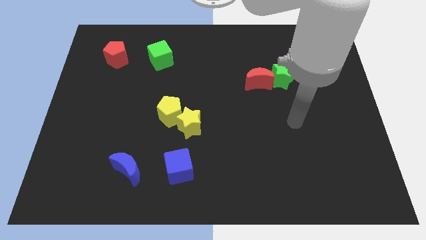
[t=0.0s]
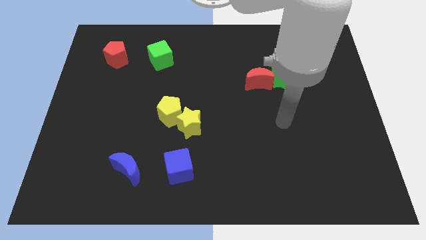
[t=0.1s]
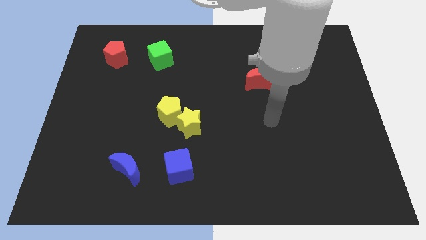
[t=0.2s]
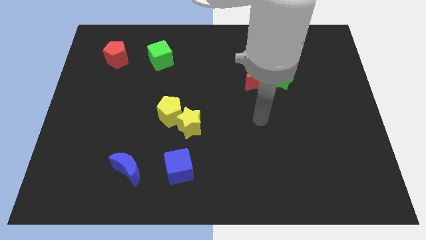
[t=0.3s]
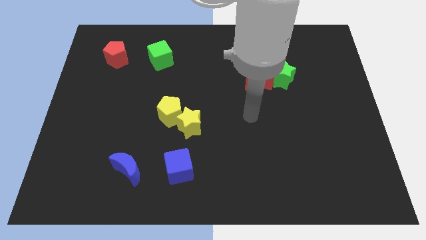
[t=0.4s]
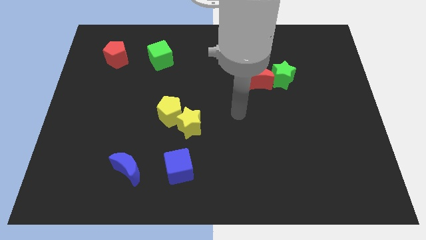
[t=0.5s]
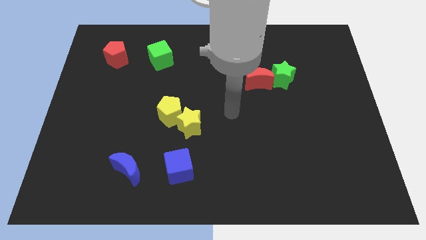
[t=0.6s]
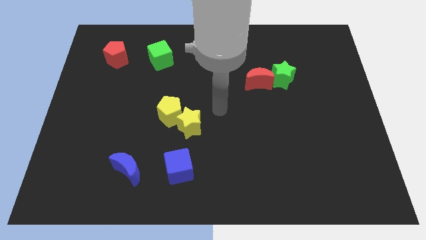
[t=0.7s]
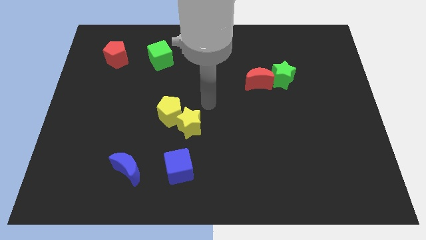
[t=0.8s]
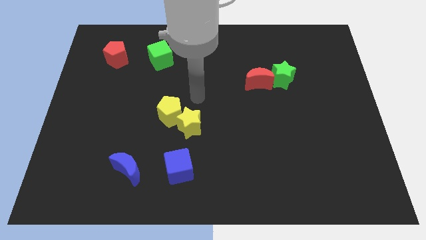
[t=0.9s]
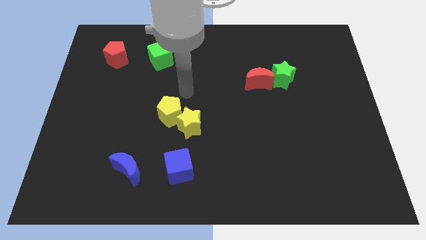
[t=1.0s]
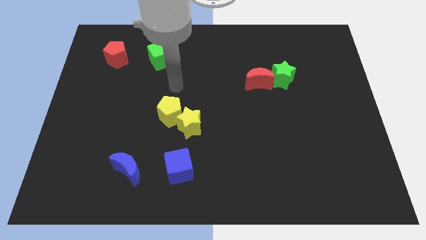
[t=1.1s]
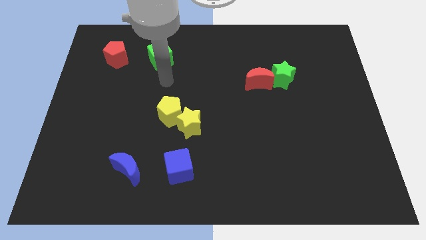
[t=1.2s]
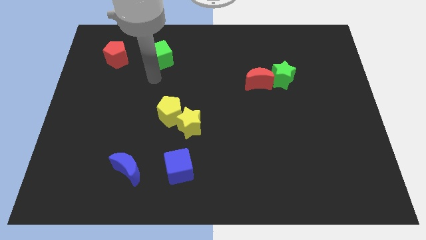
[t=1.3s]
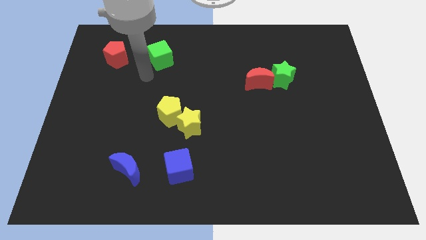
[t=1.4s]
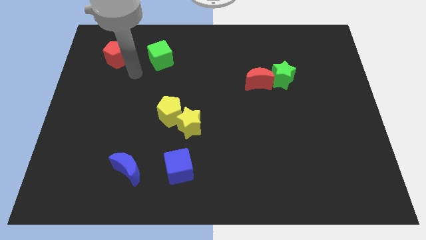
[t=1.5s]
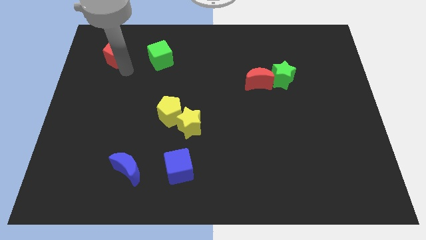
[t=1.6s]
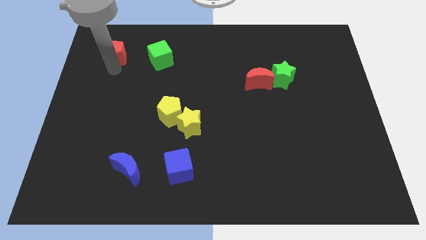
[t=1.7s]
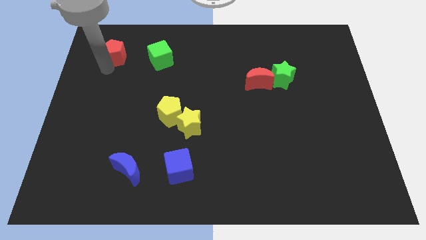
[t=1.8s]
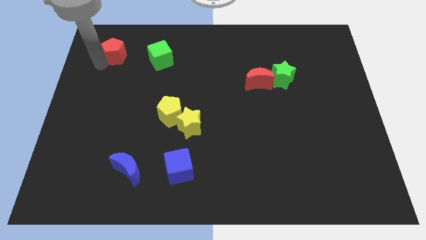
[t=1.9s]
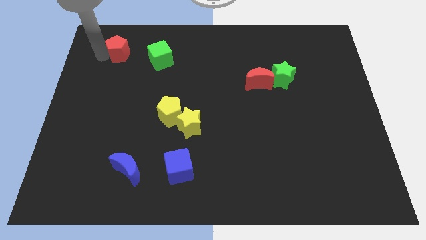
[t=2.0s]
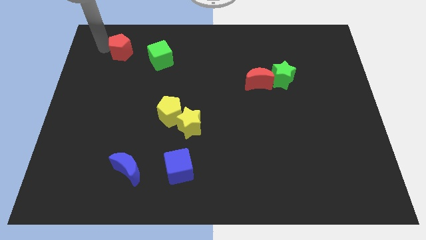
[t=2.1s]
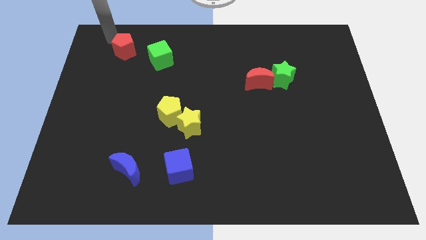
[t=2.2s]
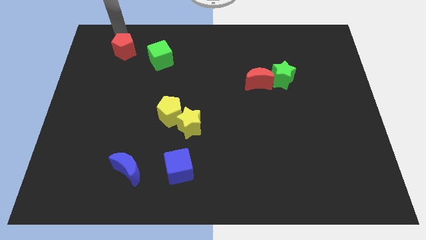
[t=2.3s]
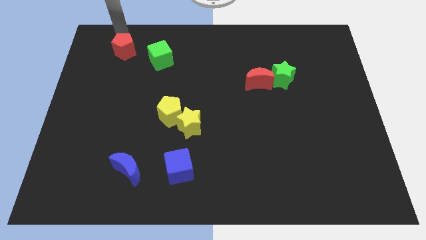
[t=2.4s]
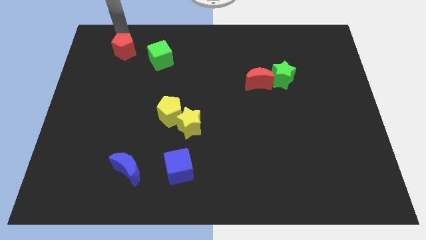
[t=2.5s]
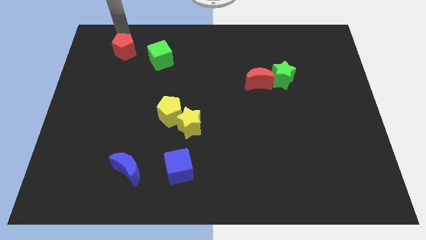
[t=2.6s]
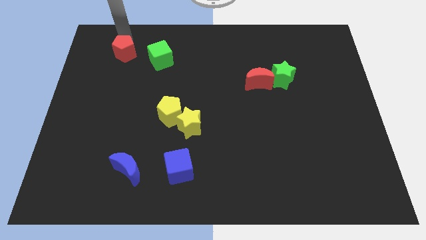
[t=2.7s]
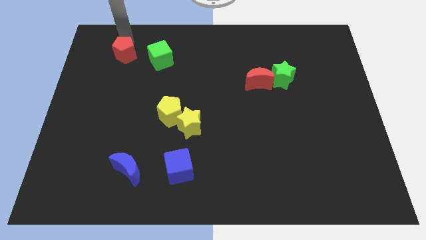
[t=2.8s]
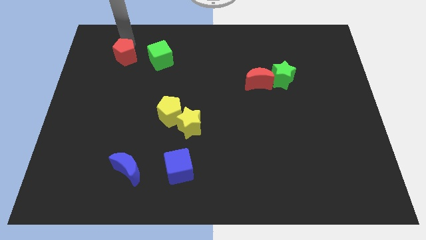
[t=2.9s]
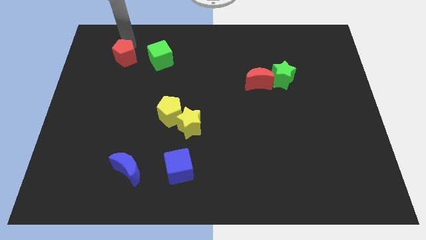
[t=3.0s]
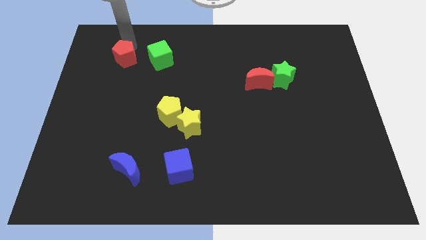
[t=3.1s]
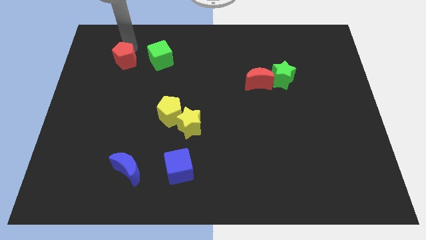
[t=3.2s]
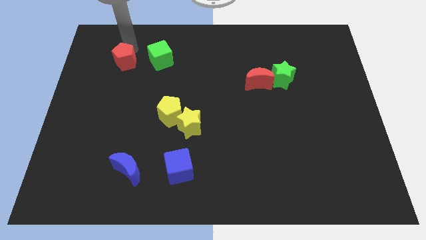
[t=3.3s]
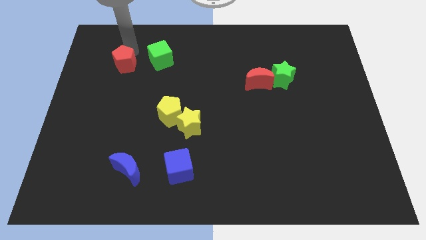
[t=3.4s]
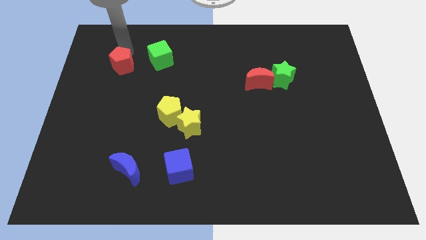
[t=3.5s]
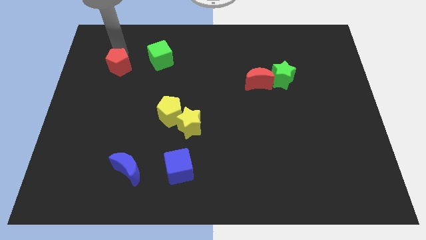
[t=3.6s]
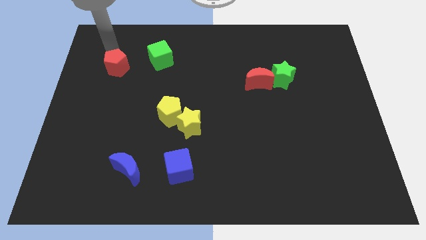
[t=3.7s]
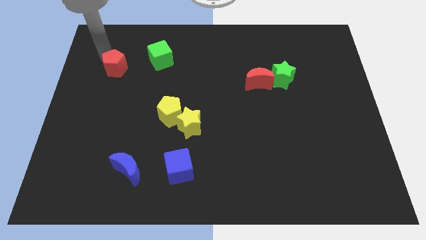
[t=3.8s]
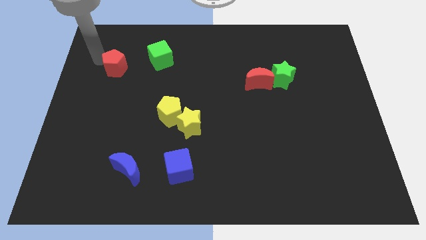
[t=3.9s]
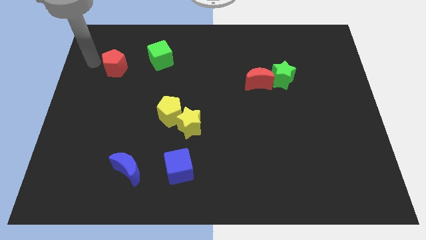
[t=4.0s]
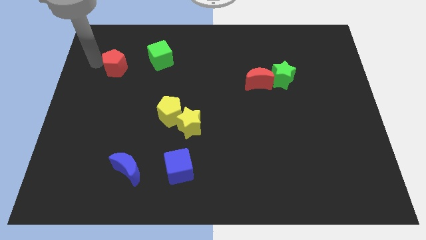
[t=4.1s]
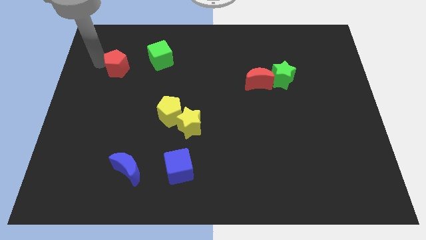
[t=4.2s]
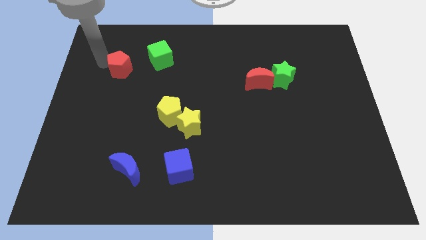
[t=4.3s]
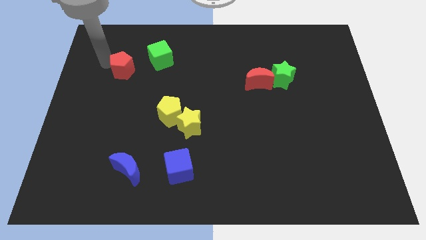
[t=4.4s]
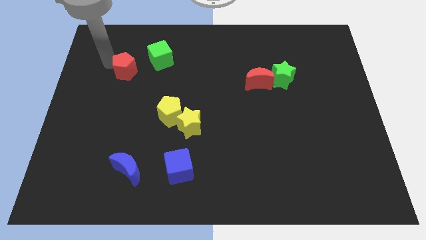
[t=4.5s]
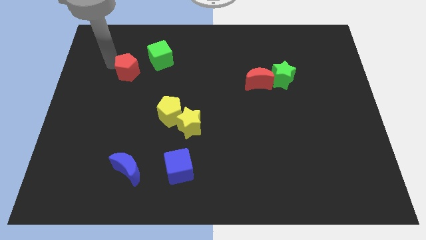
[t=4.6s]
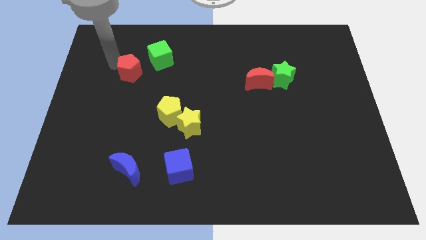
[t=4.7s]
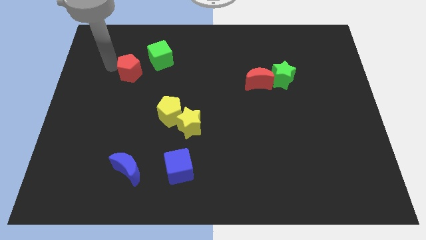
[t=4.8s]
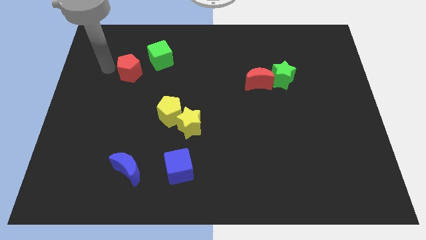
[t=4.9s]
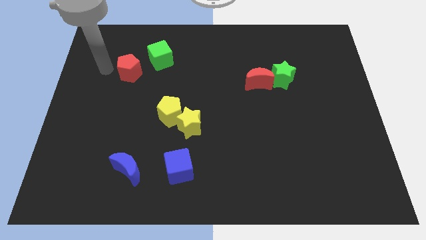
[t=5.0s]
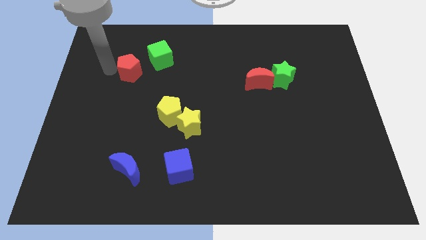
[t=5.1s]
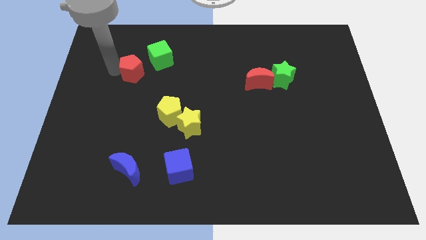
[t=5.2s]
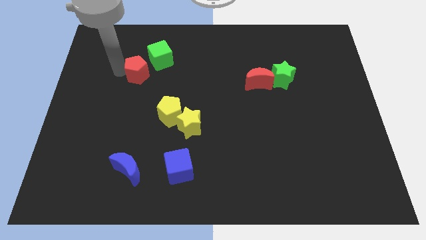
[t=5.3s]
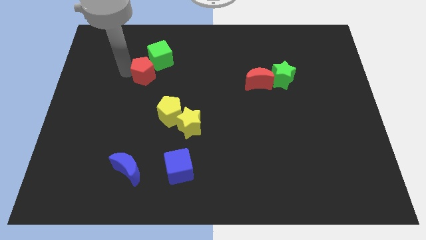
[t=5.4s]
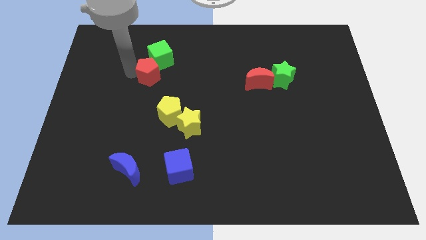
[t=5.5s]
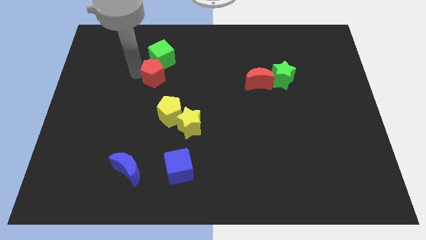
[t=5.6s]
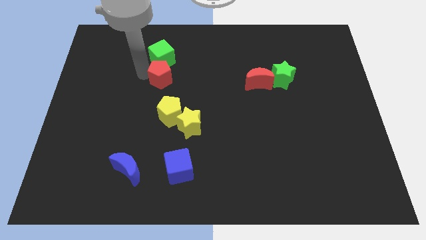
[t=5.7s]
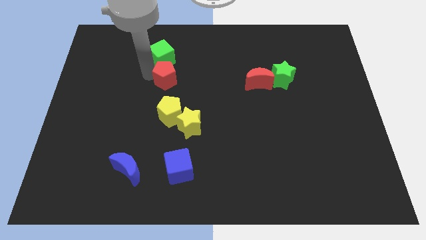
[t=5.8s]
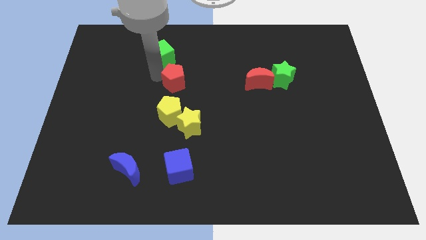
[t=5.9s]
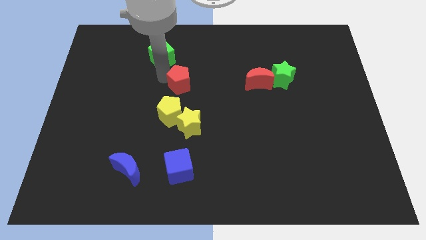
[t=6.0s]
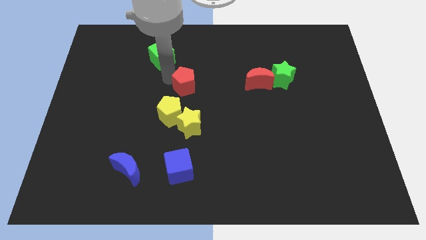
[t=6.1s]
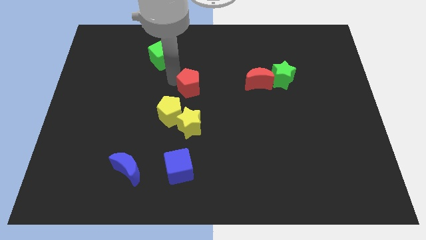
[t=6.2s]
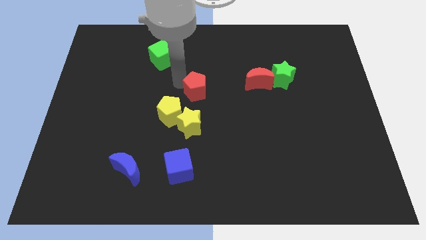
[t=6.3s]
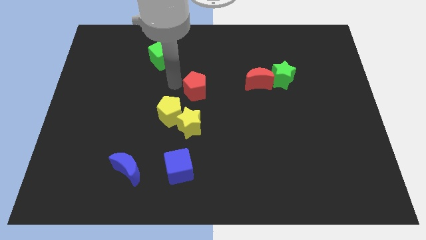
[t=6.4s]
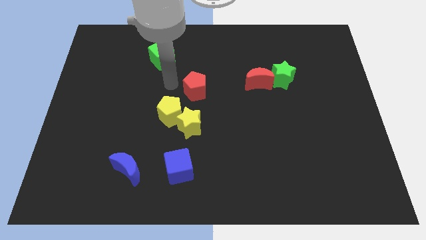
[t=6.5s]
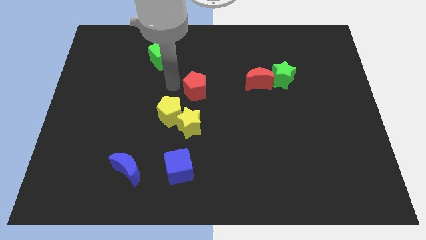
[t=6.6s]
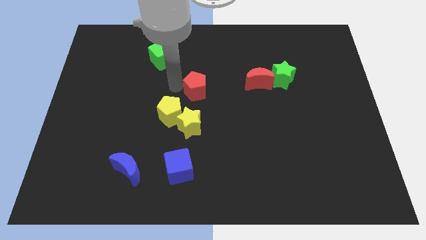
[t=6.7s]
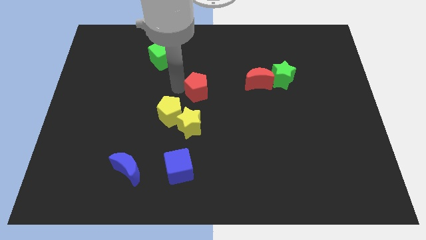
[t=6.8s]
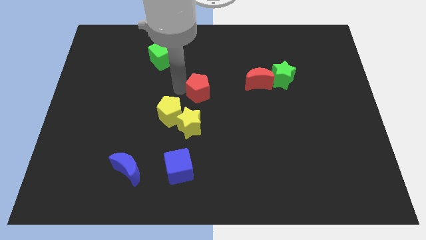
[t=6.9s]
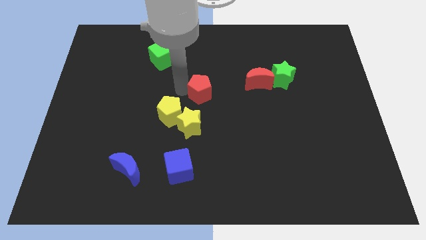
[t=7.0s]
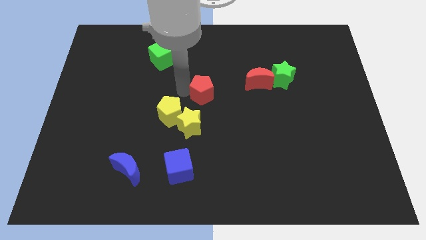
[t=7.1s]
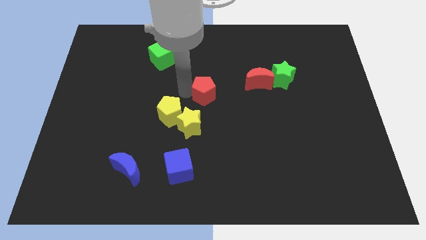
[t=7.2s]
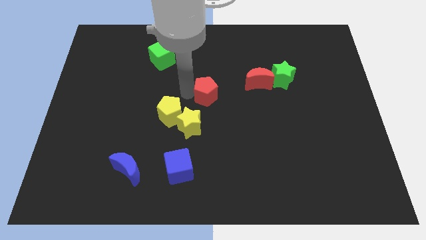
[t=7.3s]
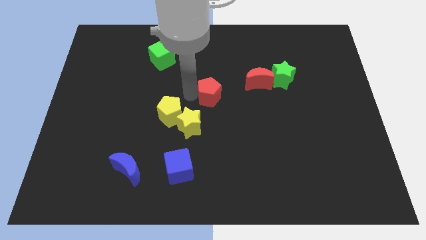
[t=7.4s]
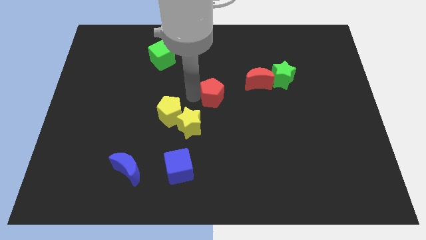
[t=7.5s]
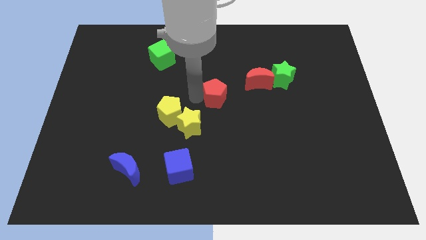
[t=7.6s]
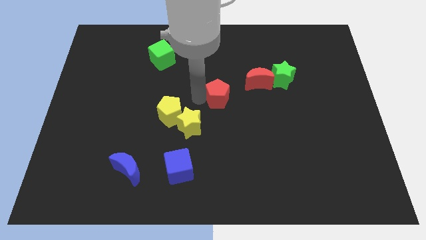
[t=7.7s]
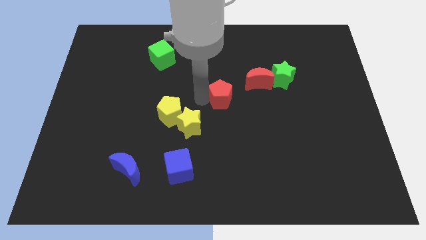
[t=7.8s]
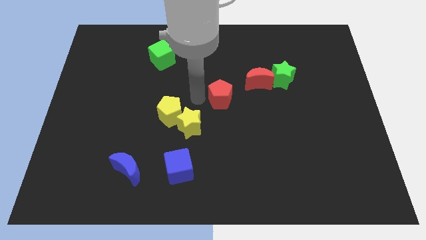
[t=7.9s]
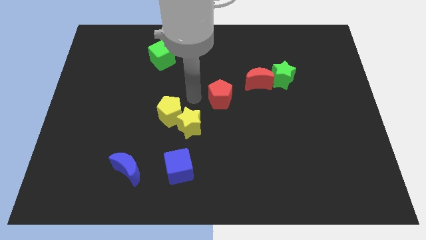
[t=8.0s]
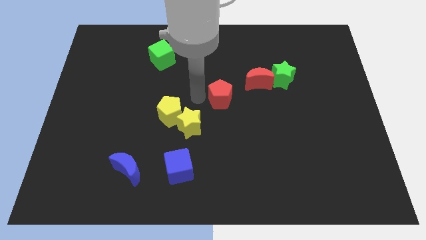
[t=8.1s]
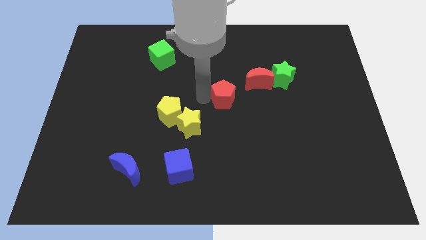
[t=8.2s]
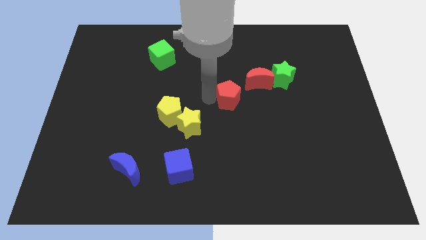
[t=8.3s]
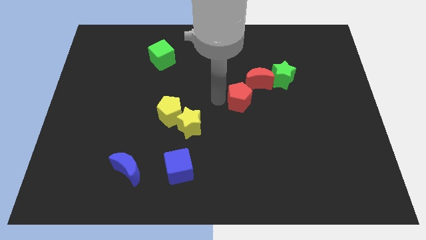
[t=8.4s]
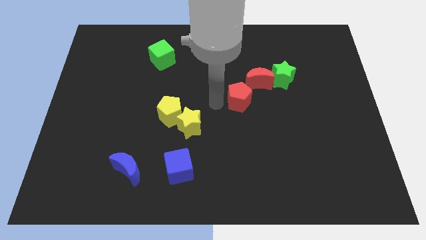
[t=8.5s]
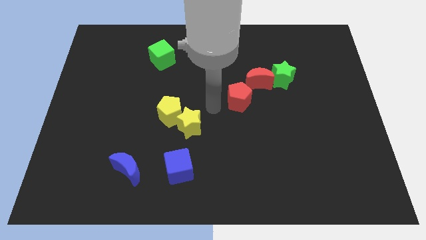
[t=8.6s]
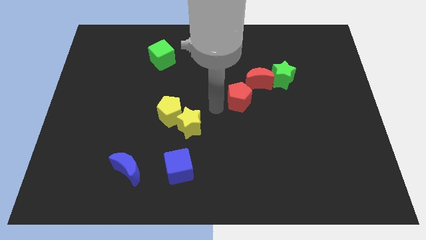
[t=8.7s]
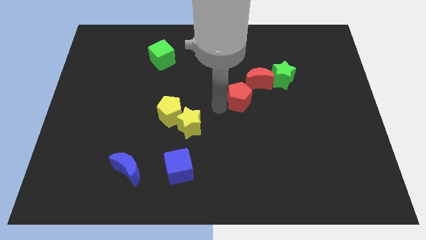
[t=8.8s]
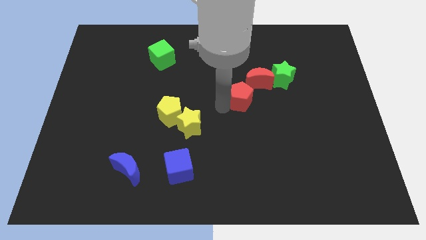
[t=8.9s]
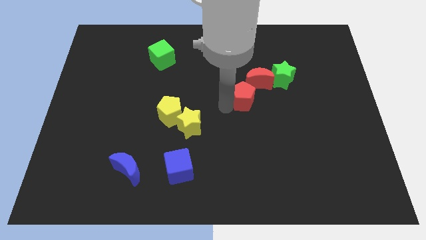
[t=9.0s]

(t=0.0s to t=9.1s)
slide the red pentagon to the bottom left of the green star
